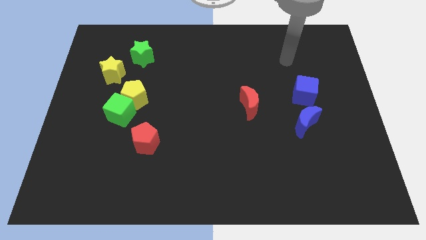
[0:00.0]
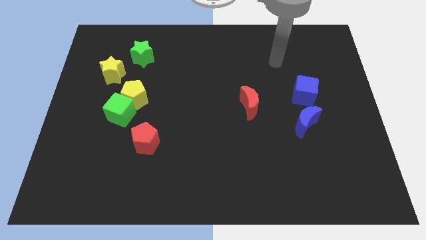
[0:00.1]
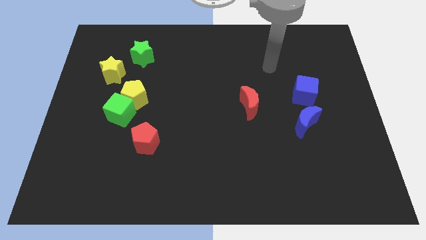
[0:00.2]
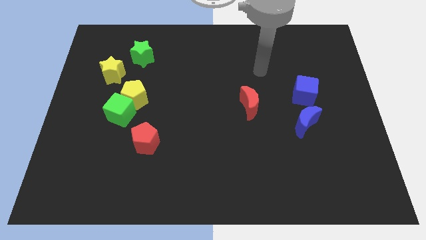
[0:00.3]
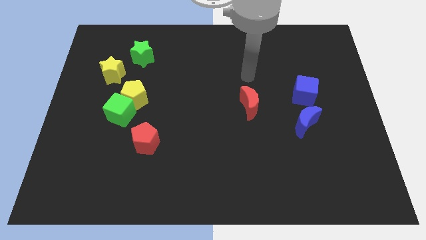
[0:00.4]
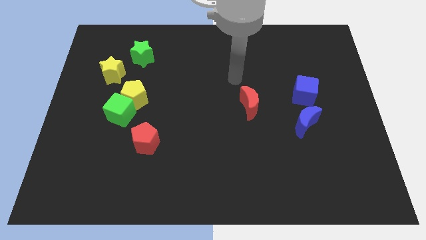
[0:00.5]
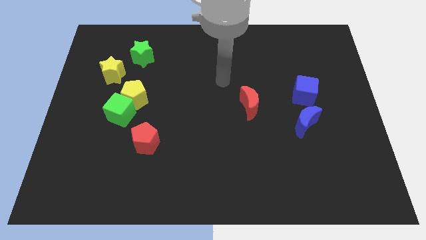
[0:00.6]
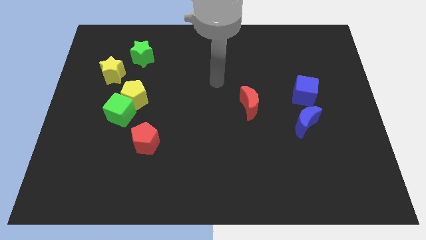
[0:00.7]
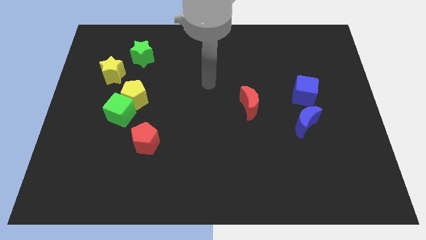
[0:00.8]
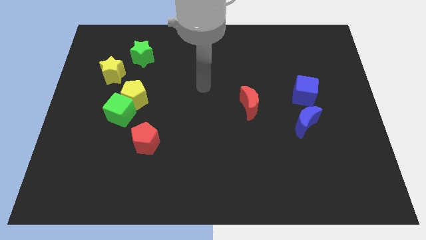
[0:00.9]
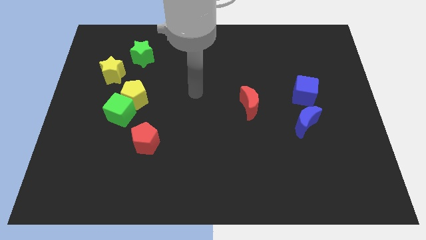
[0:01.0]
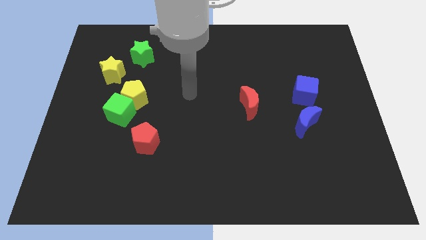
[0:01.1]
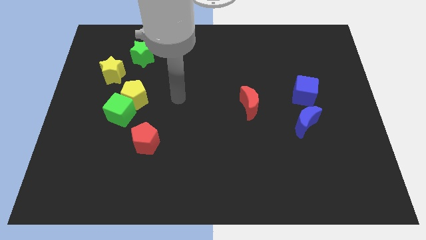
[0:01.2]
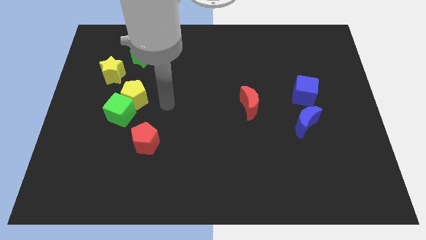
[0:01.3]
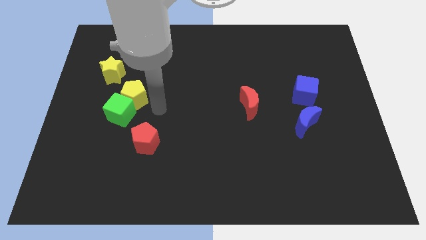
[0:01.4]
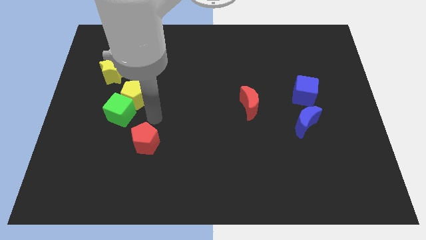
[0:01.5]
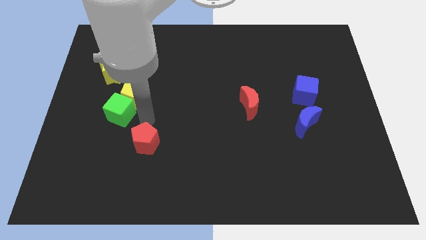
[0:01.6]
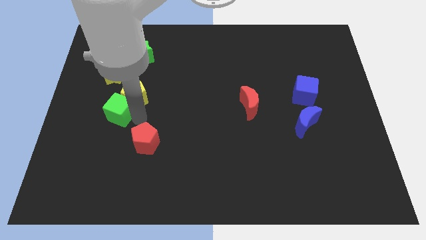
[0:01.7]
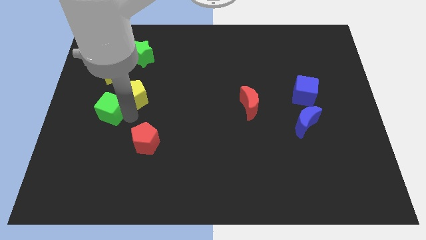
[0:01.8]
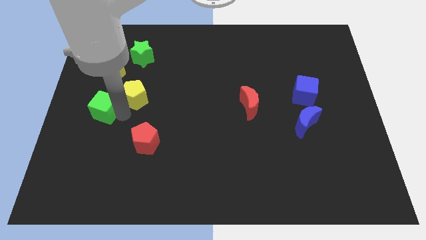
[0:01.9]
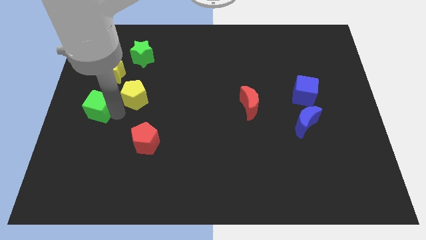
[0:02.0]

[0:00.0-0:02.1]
separate the green cube from the yellow pentagon and red pentagon

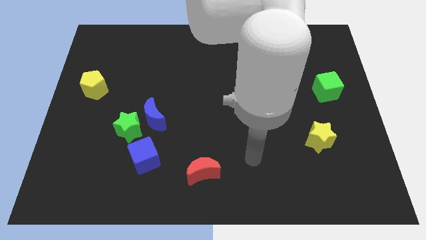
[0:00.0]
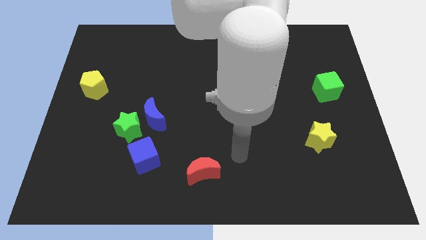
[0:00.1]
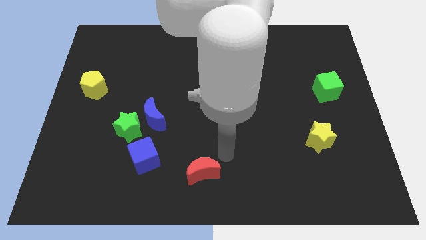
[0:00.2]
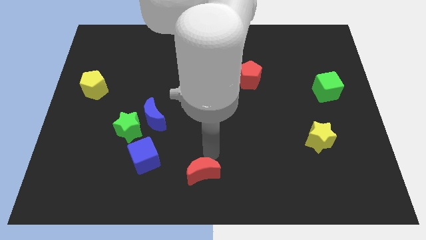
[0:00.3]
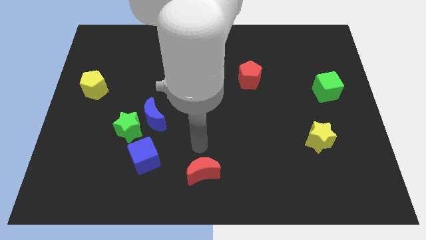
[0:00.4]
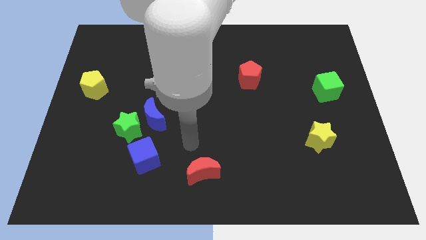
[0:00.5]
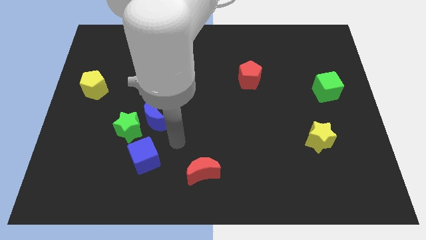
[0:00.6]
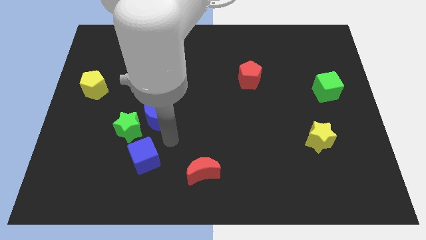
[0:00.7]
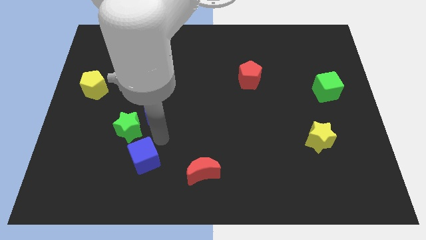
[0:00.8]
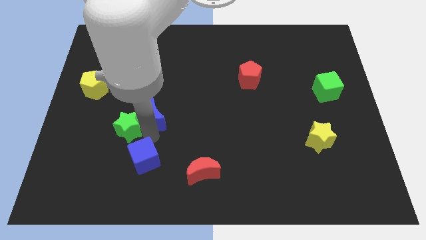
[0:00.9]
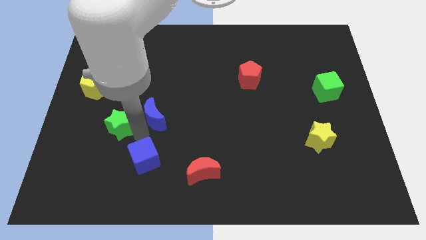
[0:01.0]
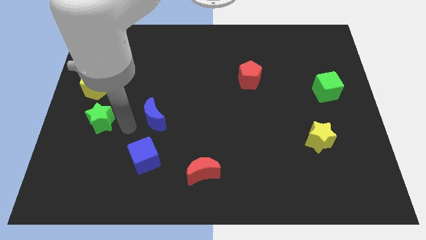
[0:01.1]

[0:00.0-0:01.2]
move the blue moon away from the green star

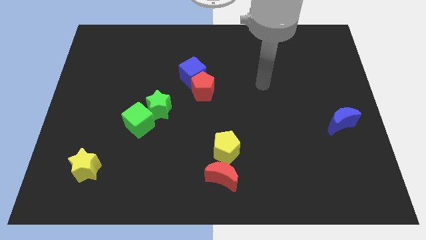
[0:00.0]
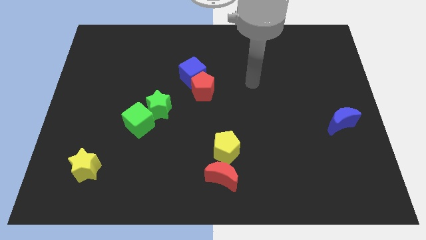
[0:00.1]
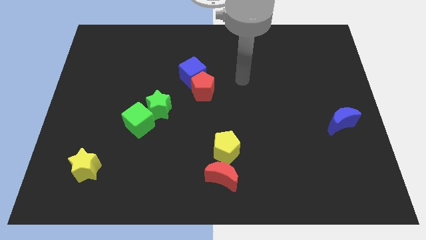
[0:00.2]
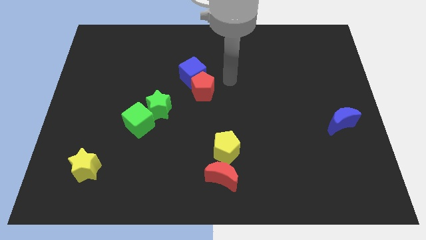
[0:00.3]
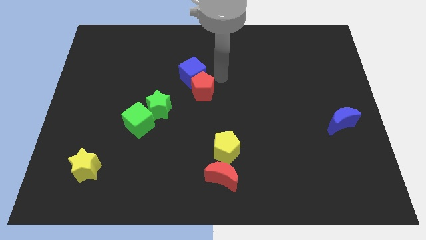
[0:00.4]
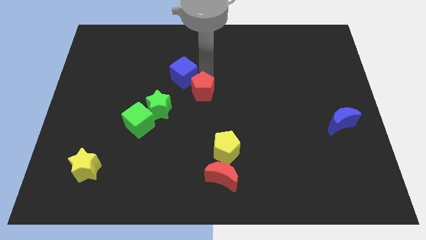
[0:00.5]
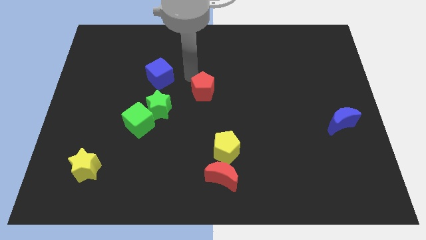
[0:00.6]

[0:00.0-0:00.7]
move the red pentagon away from the blue cube

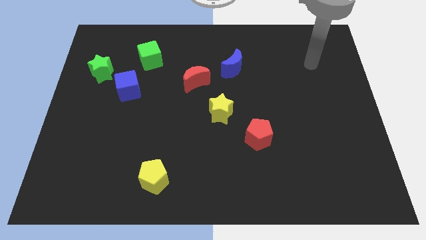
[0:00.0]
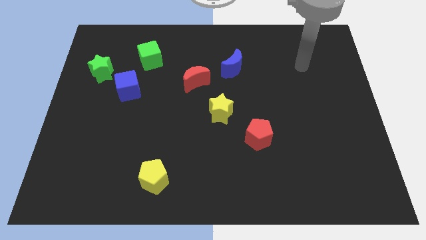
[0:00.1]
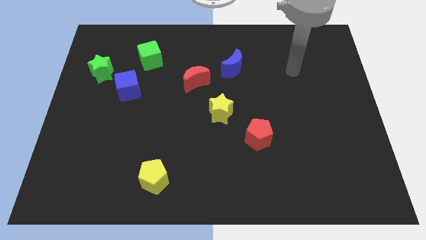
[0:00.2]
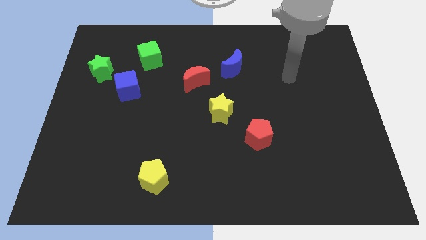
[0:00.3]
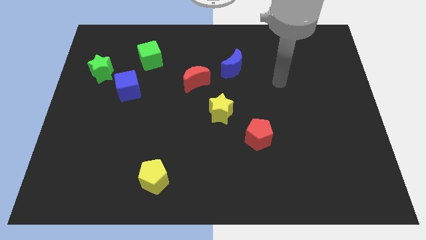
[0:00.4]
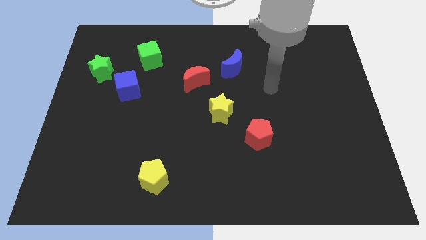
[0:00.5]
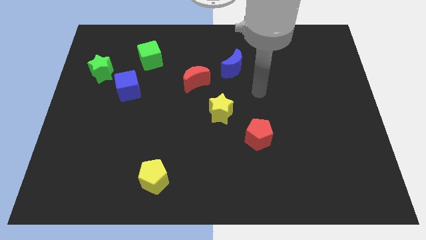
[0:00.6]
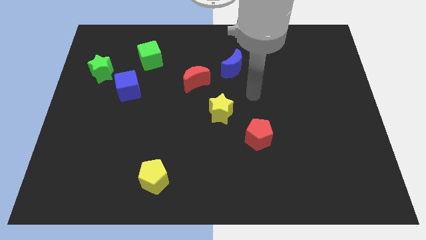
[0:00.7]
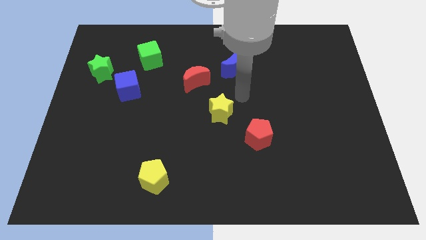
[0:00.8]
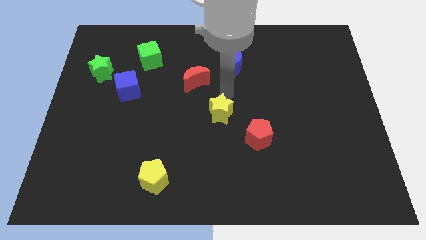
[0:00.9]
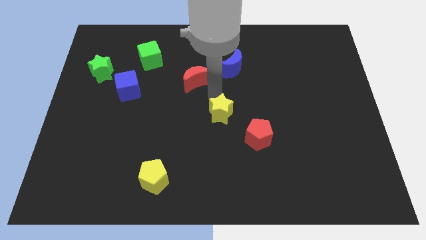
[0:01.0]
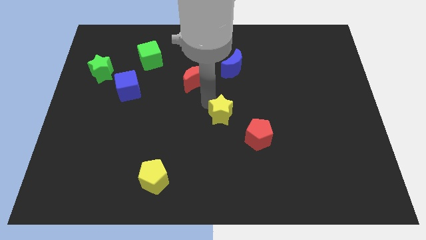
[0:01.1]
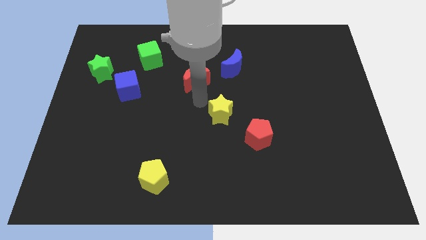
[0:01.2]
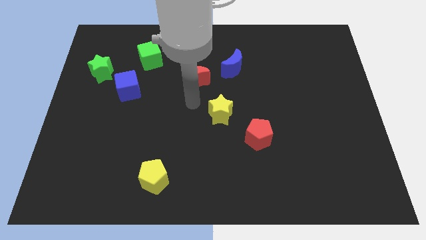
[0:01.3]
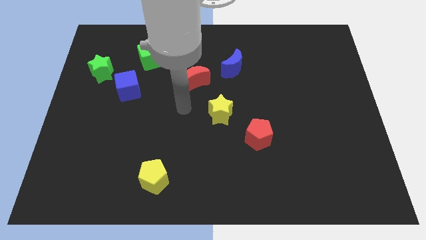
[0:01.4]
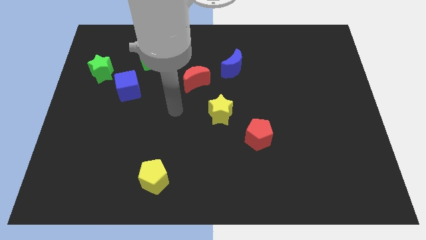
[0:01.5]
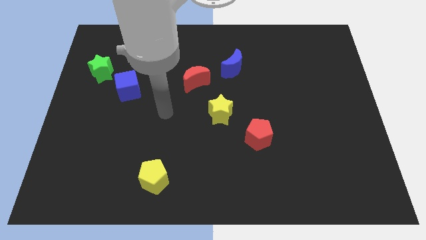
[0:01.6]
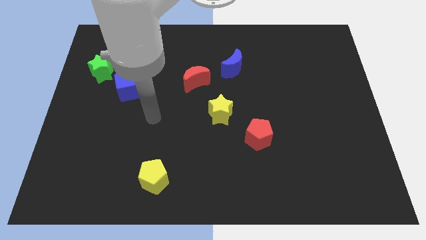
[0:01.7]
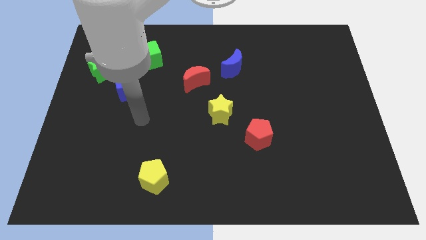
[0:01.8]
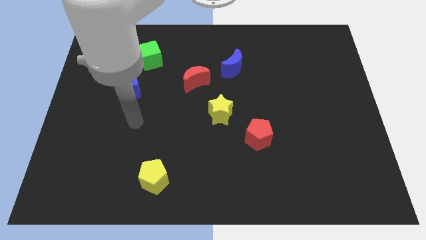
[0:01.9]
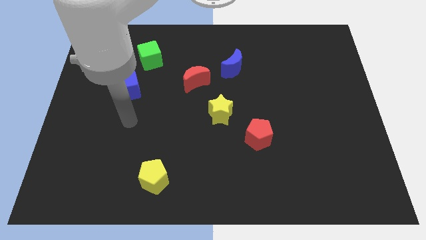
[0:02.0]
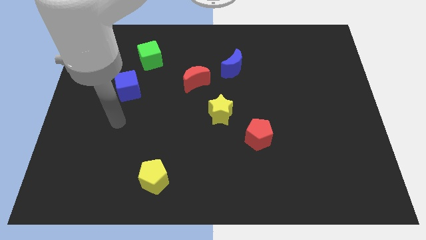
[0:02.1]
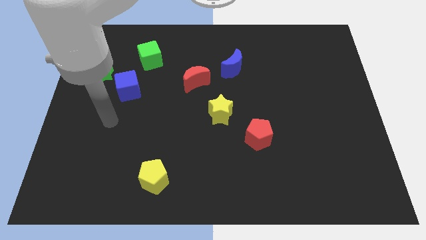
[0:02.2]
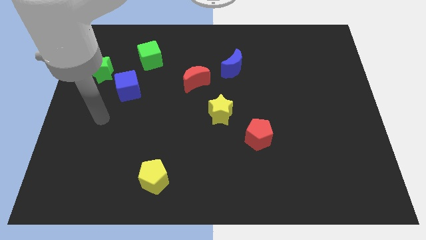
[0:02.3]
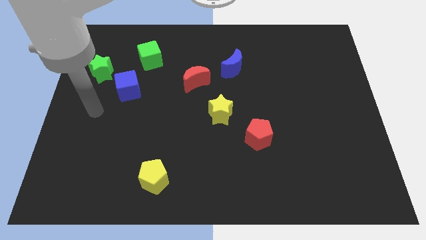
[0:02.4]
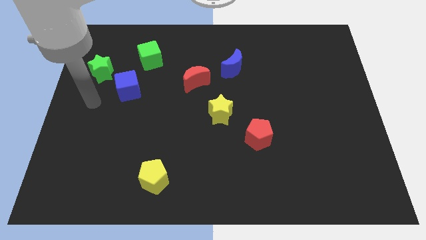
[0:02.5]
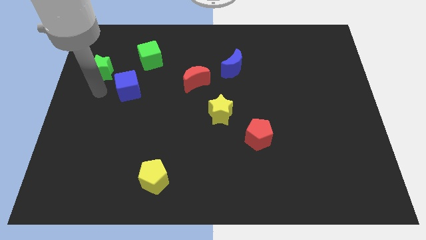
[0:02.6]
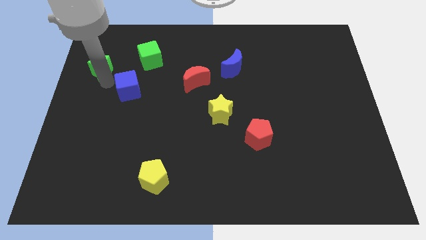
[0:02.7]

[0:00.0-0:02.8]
pull the blue cube apart from the green star

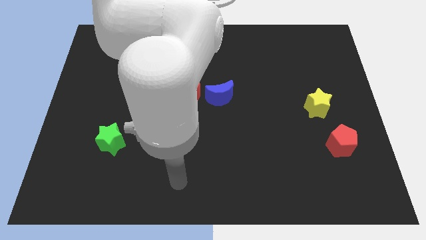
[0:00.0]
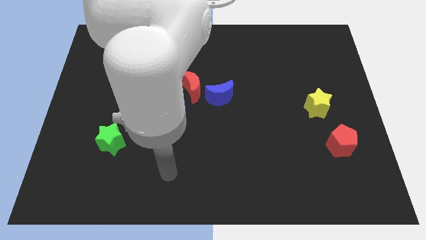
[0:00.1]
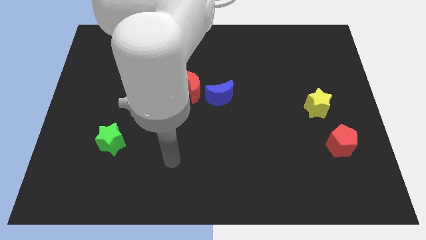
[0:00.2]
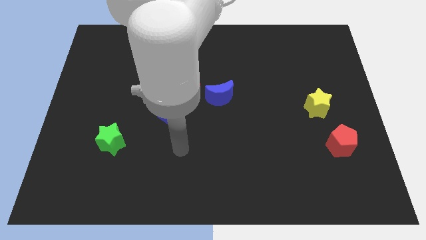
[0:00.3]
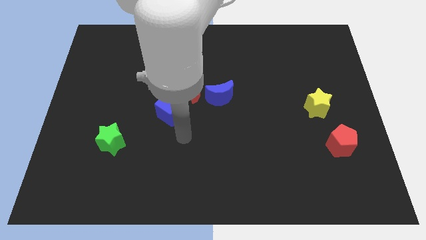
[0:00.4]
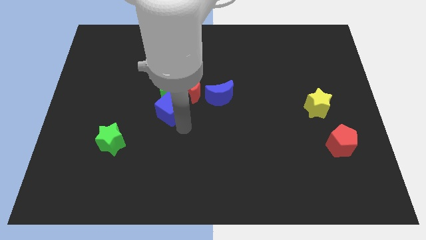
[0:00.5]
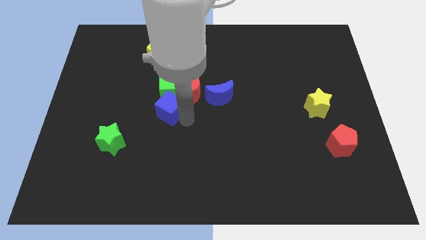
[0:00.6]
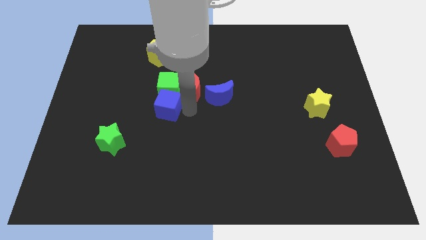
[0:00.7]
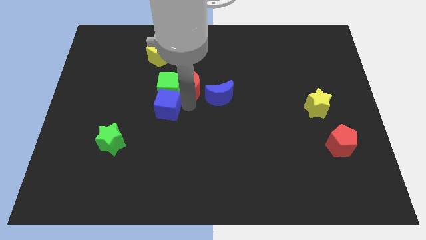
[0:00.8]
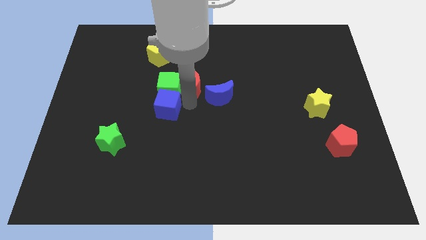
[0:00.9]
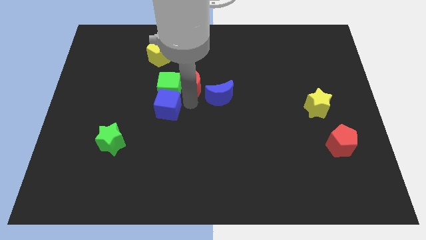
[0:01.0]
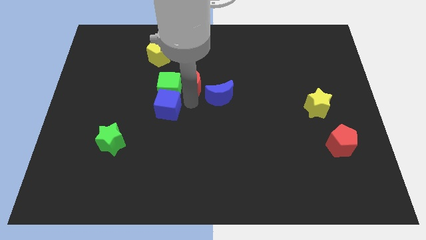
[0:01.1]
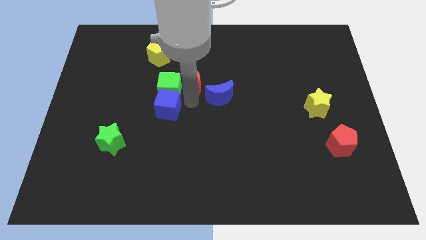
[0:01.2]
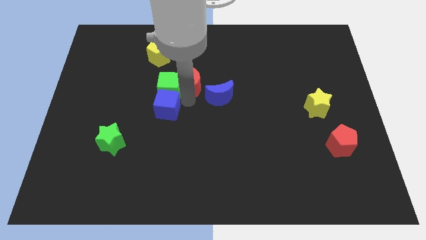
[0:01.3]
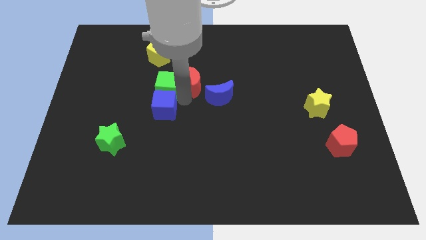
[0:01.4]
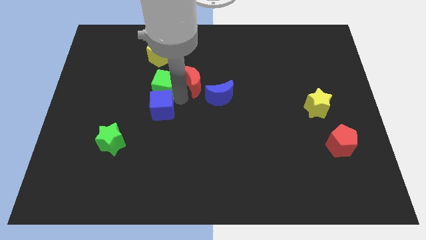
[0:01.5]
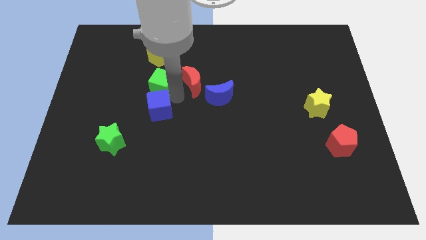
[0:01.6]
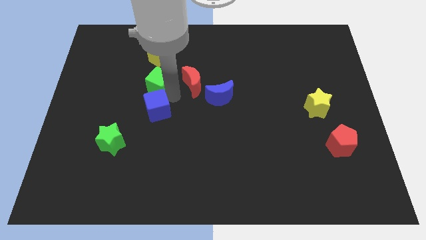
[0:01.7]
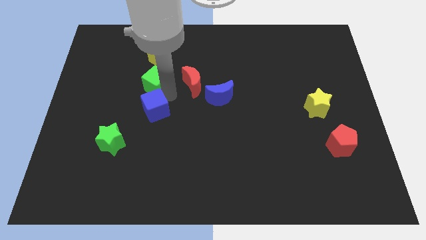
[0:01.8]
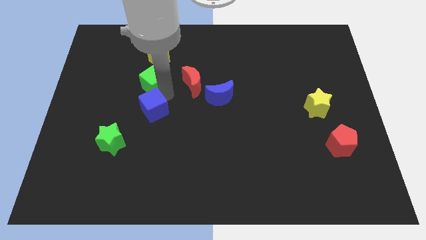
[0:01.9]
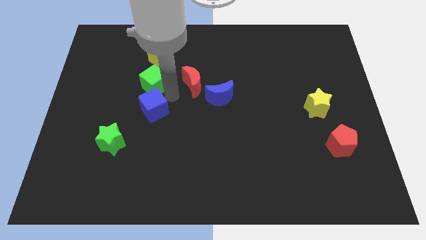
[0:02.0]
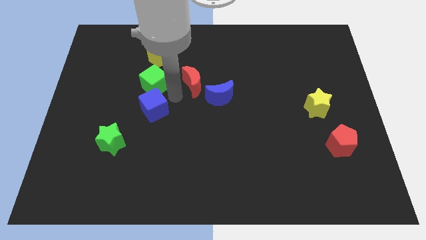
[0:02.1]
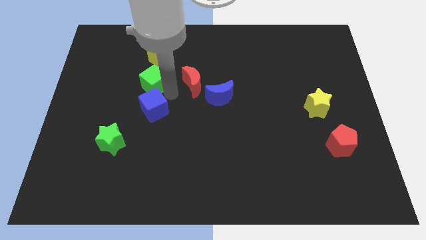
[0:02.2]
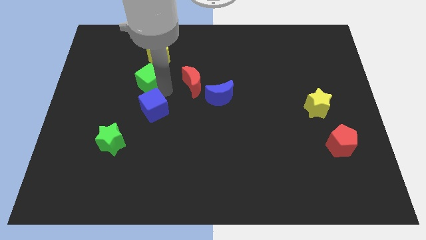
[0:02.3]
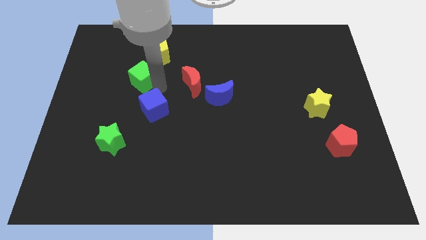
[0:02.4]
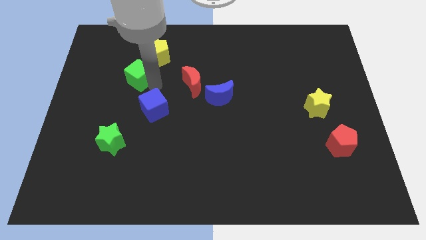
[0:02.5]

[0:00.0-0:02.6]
pull the green cube apart from the red moon and blue cube
